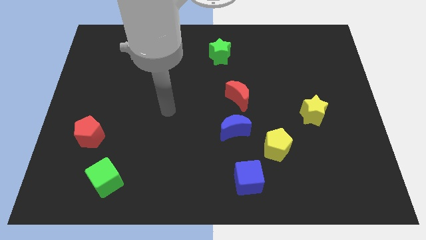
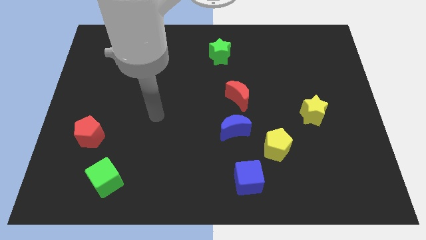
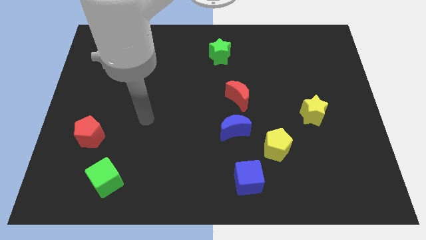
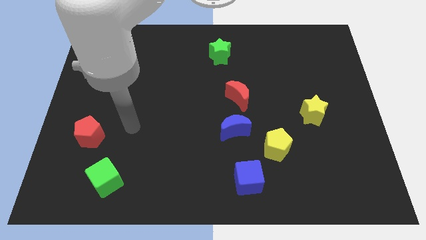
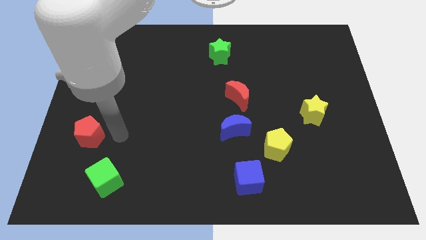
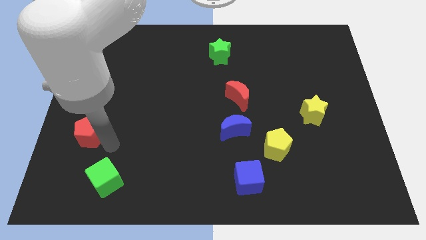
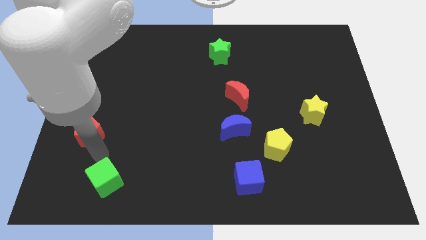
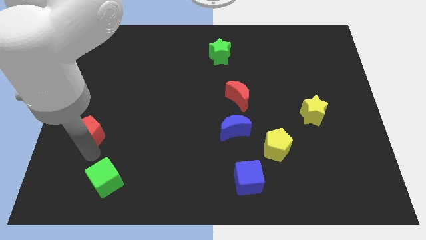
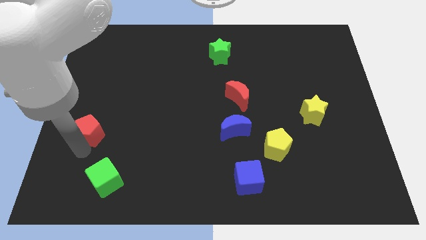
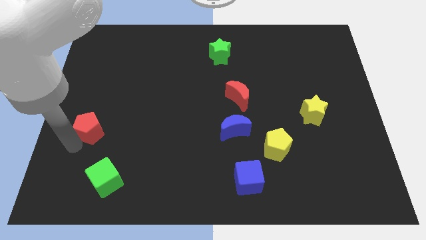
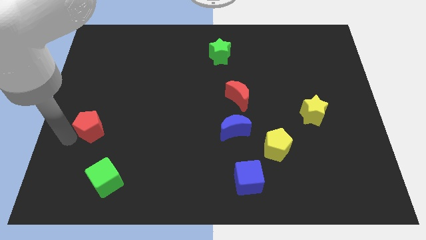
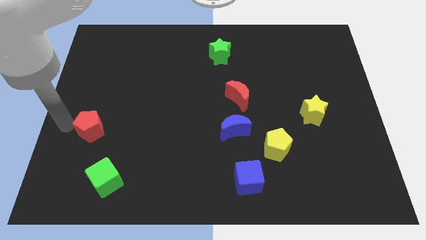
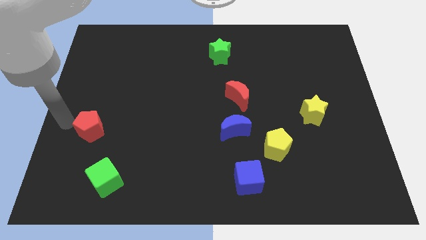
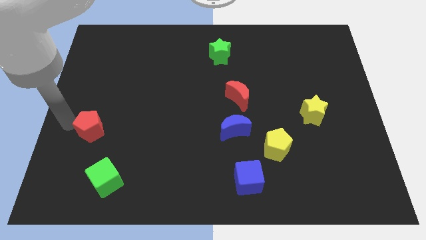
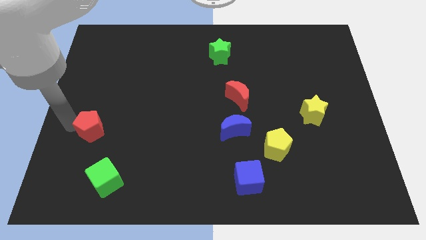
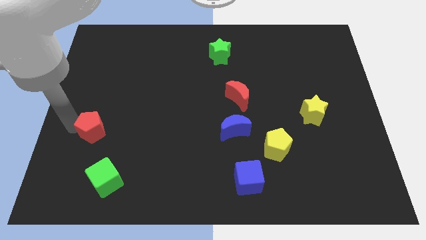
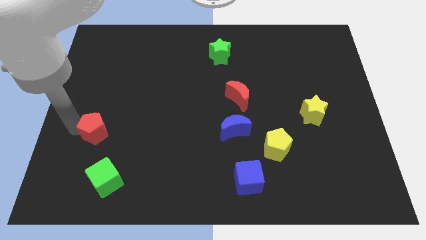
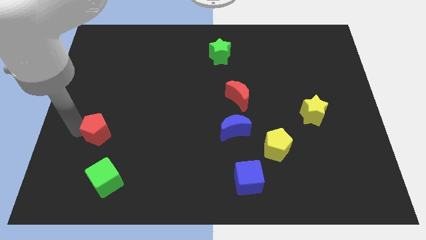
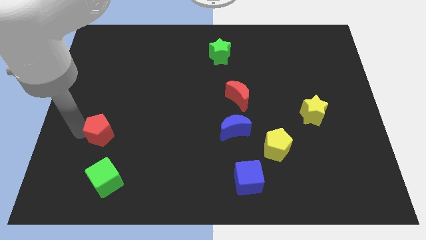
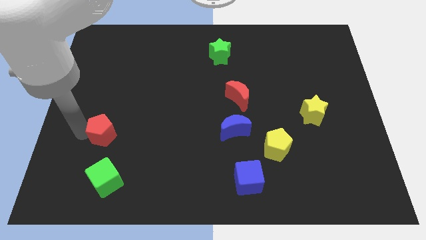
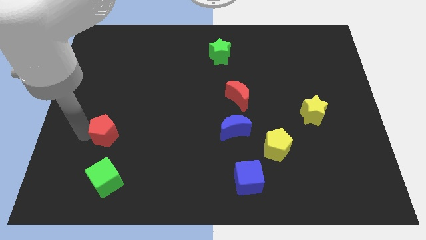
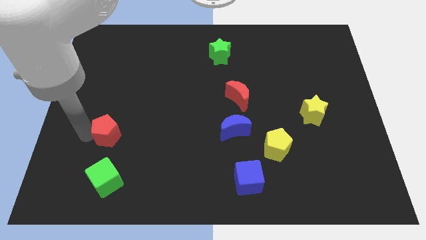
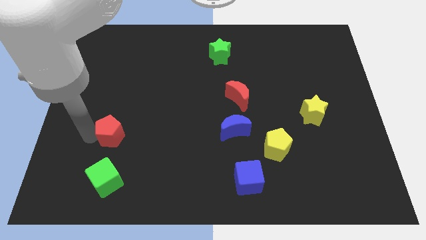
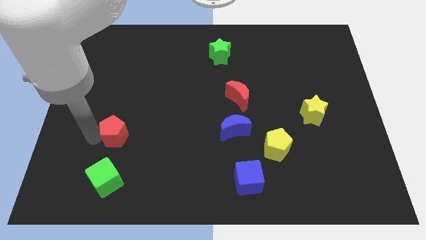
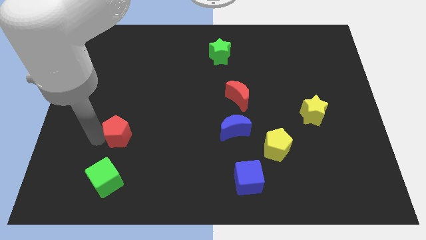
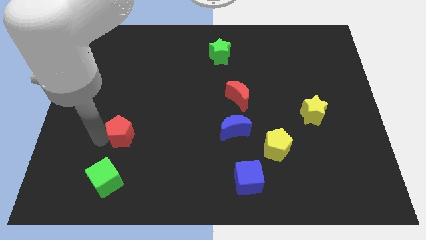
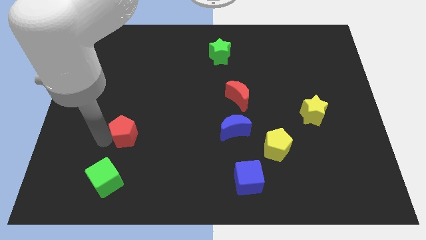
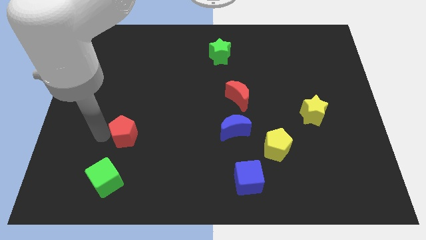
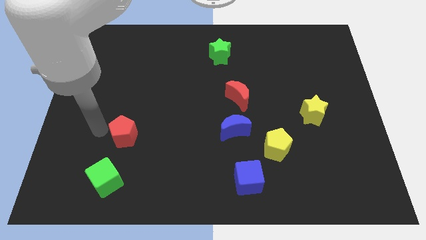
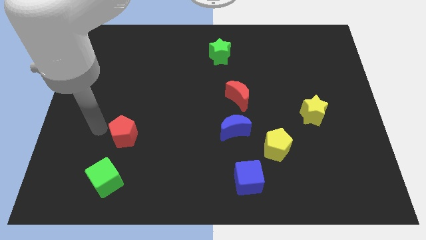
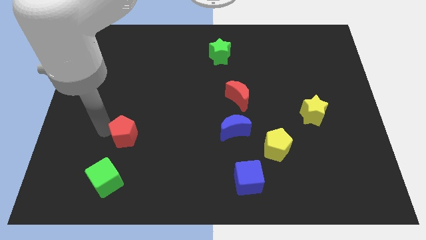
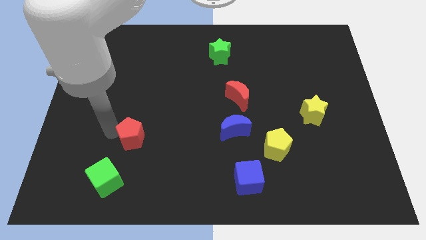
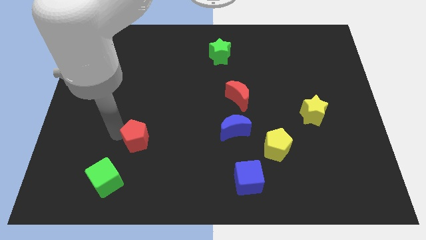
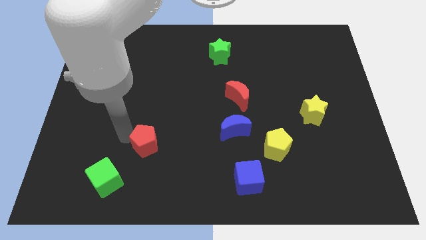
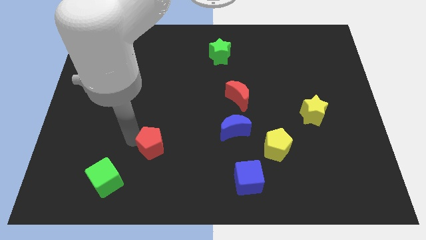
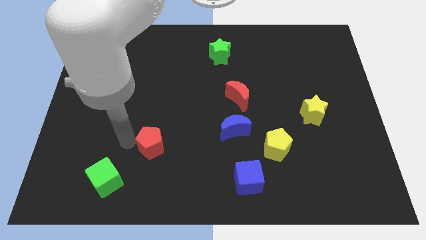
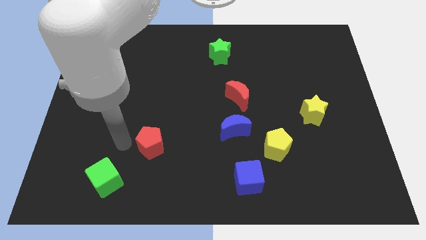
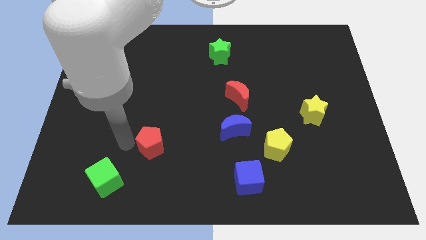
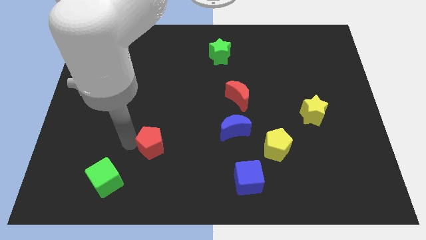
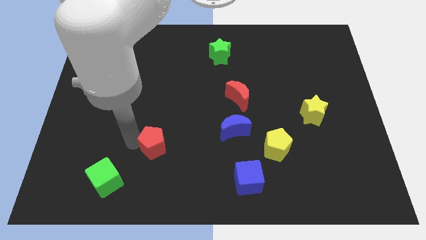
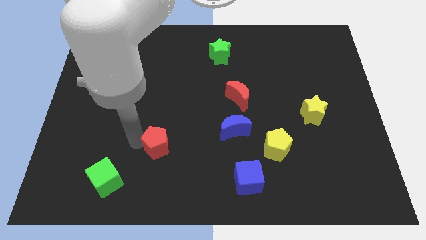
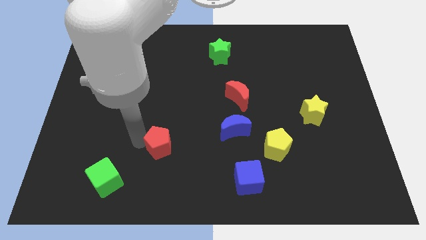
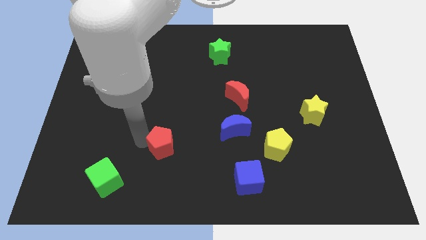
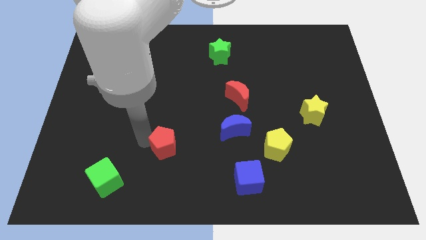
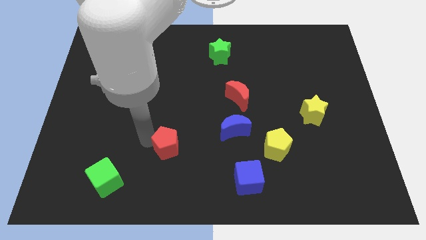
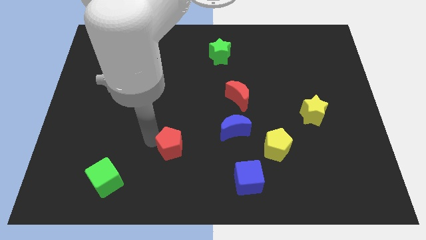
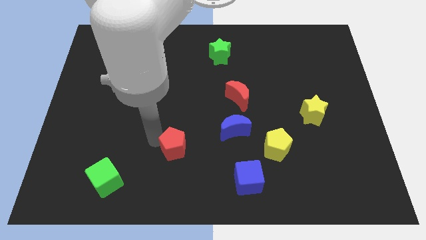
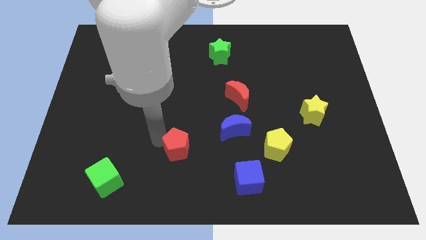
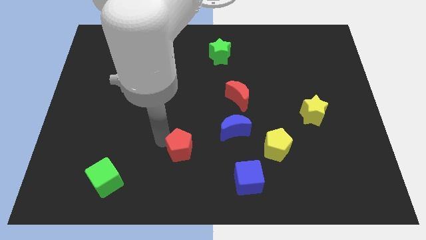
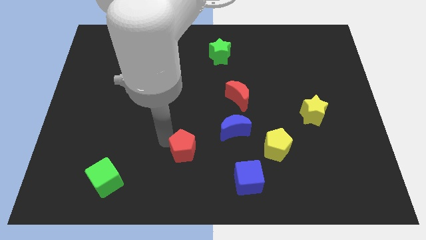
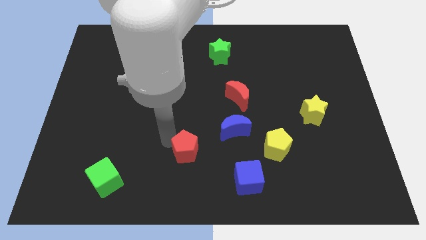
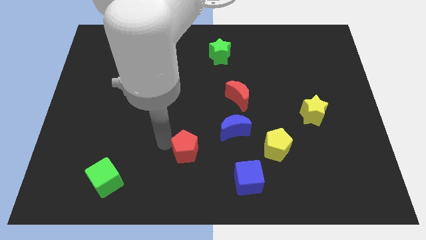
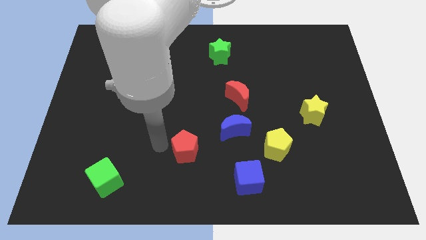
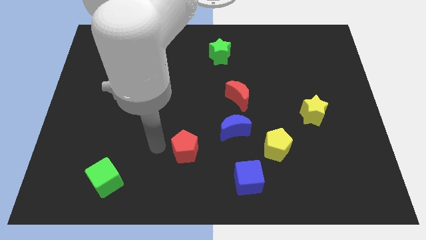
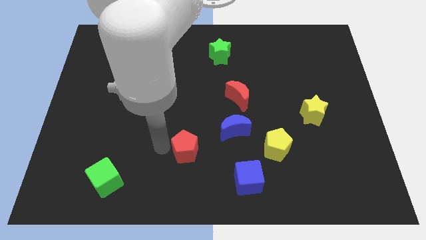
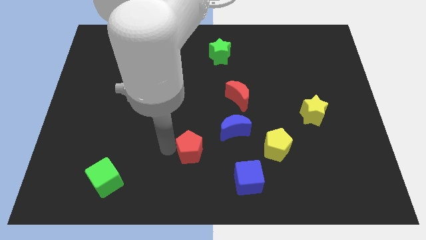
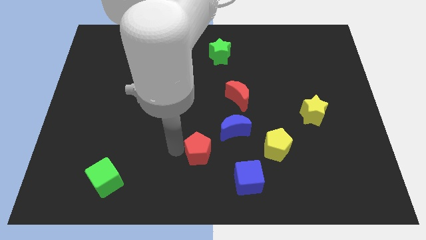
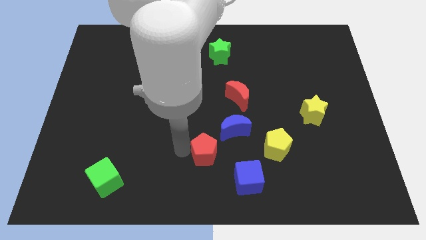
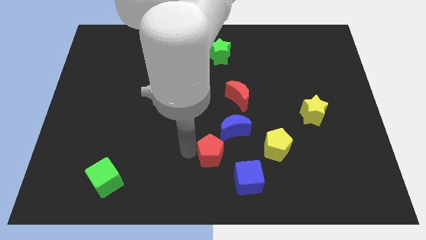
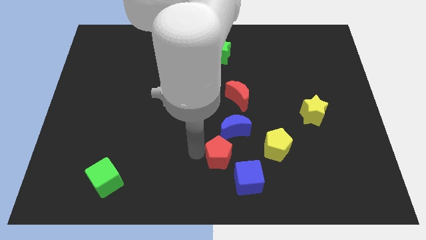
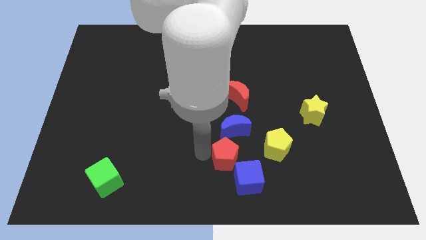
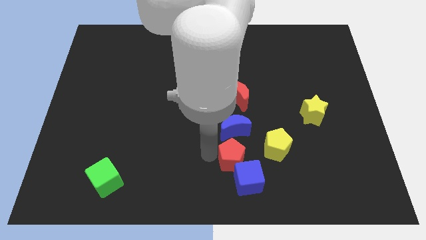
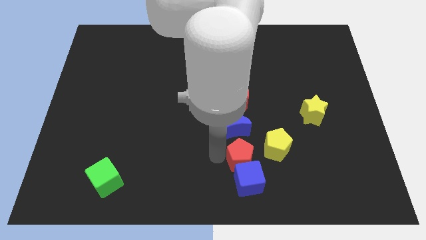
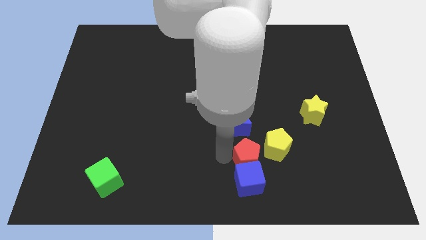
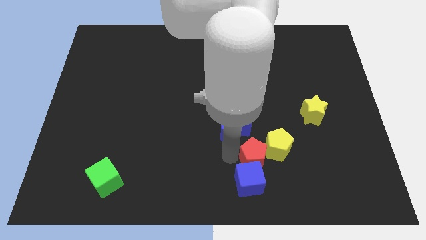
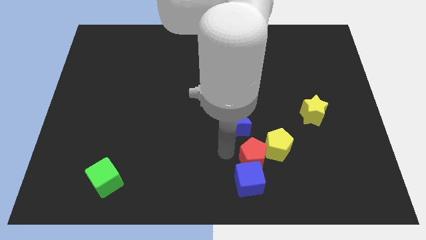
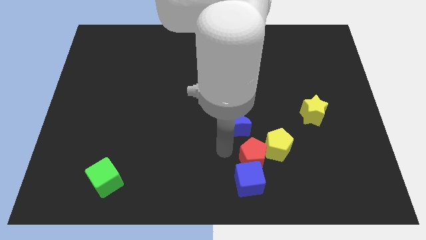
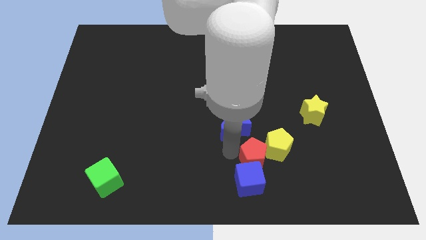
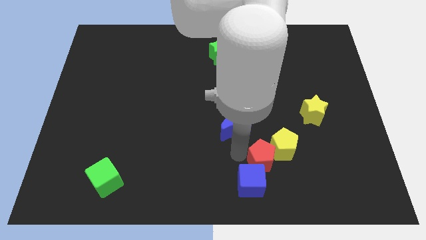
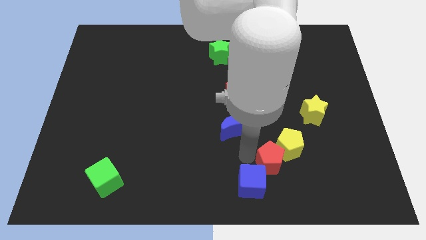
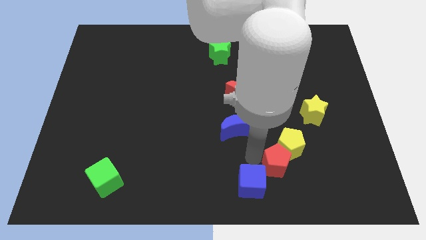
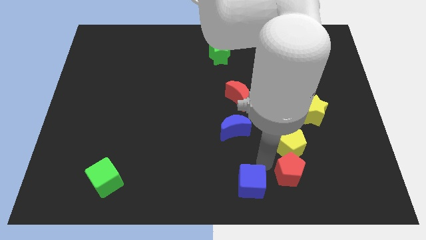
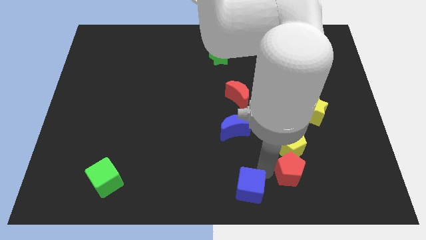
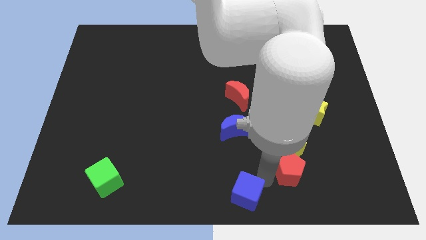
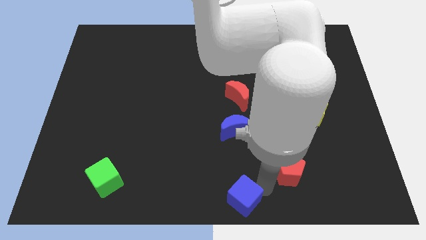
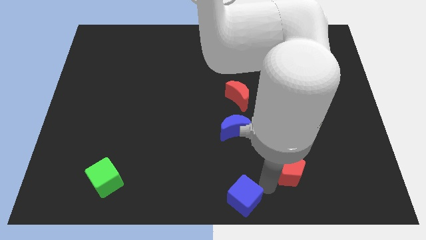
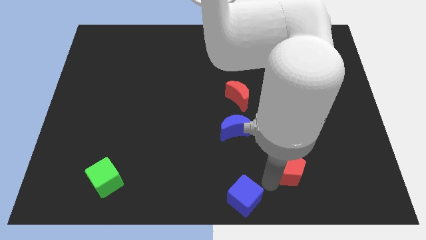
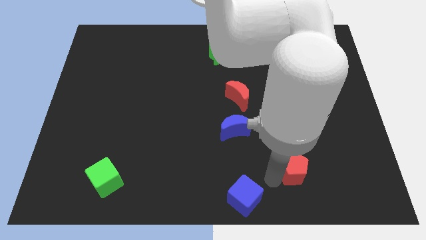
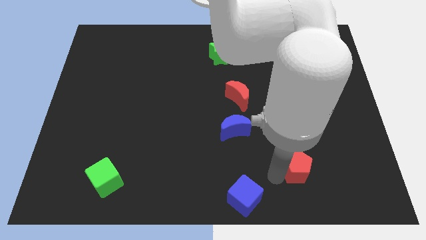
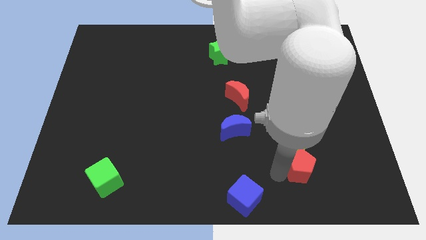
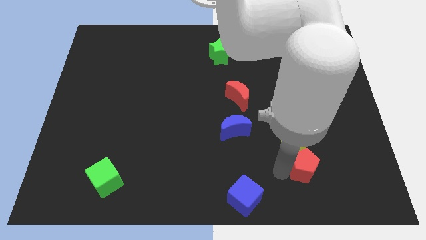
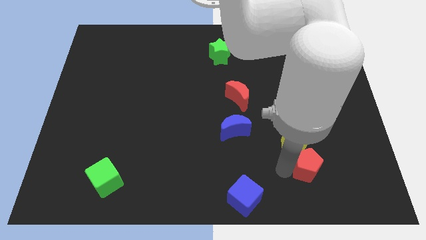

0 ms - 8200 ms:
put the red pentagon to the bottom of the yellow star
